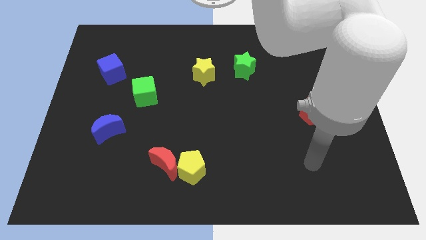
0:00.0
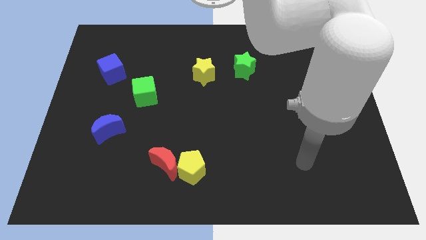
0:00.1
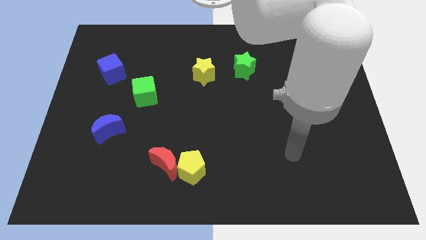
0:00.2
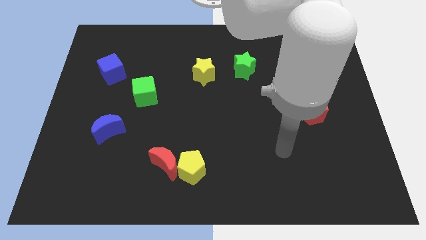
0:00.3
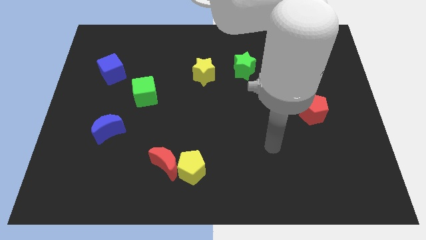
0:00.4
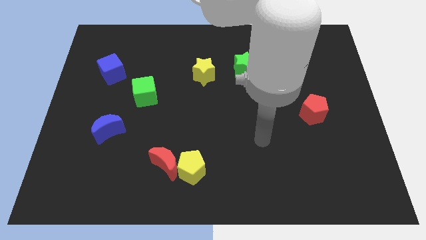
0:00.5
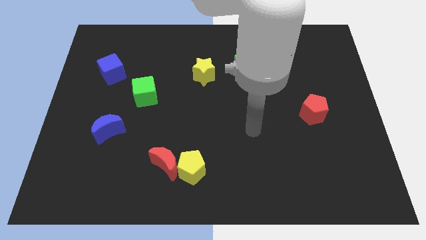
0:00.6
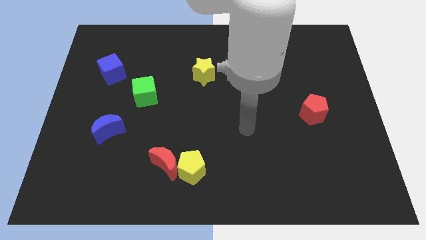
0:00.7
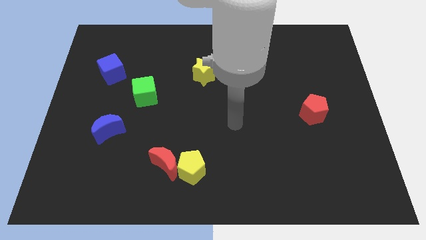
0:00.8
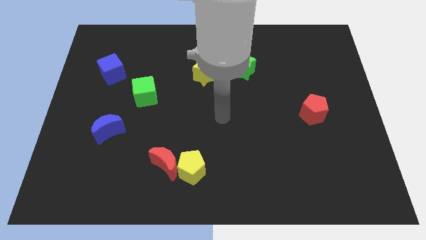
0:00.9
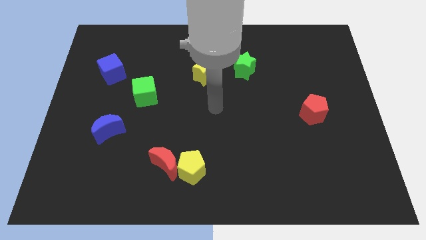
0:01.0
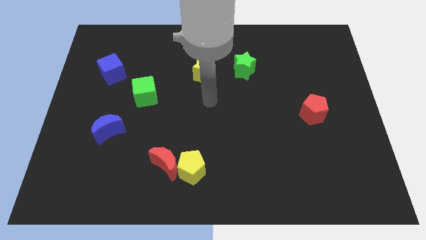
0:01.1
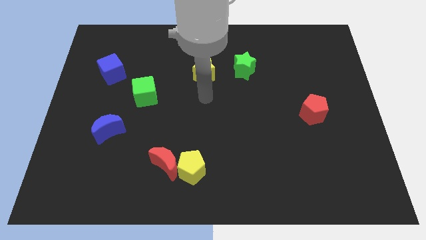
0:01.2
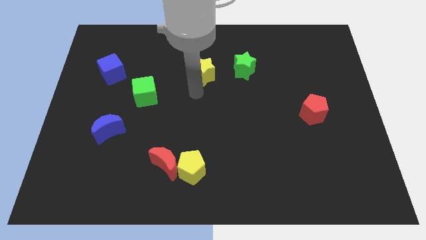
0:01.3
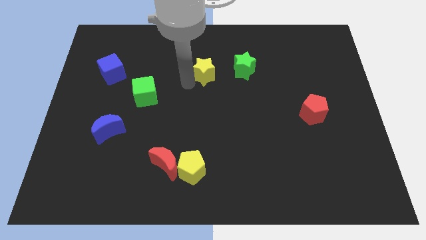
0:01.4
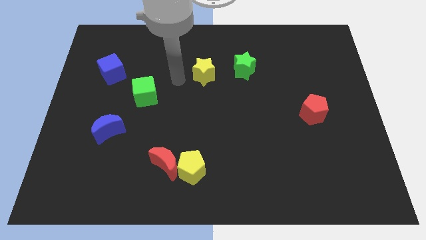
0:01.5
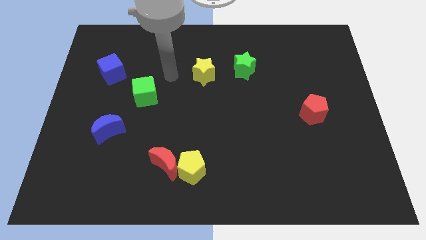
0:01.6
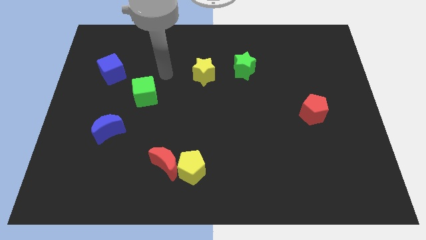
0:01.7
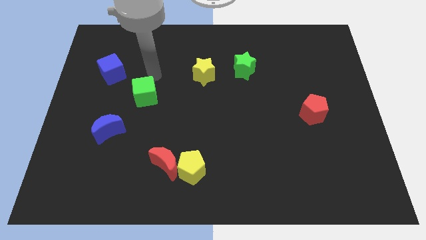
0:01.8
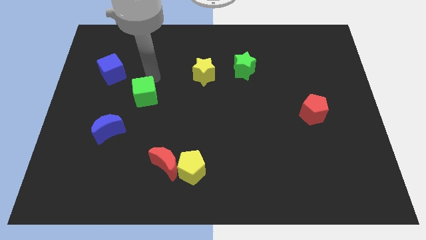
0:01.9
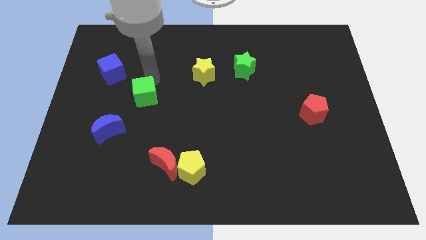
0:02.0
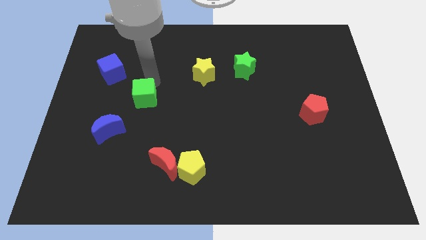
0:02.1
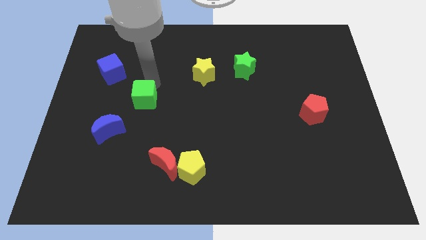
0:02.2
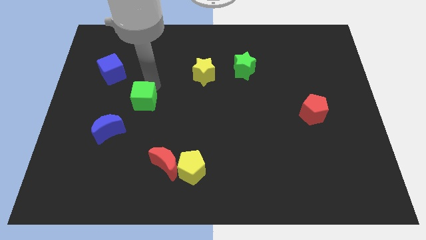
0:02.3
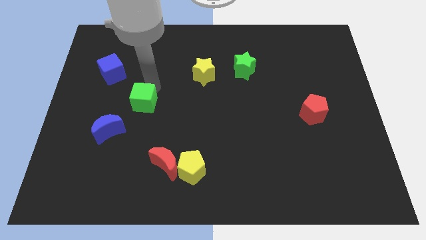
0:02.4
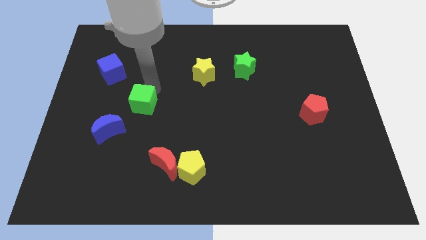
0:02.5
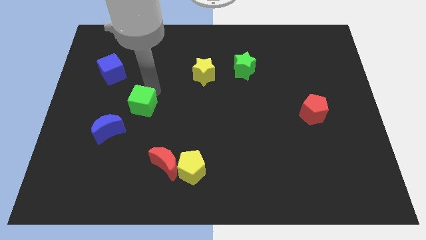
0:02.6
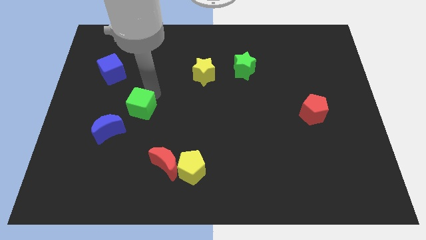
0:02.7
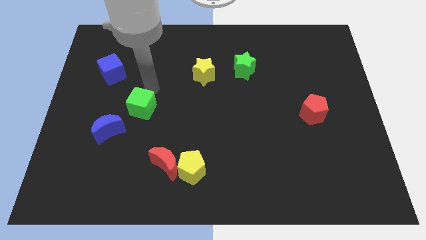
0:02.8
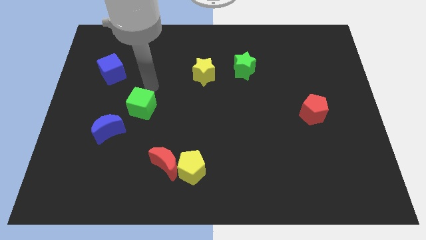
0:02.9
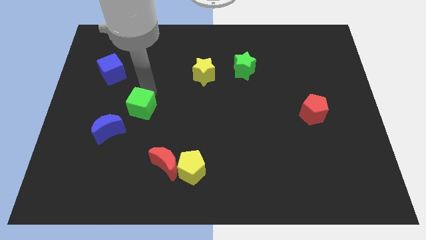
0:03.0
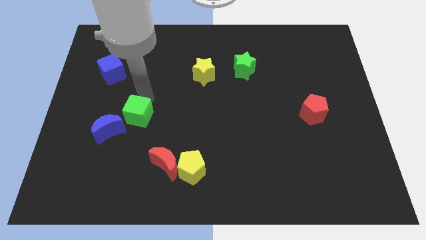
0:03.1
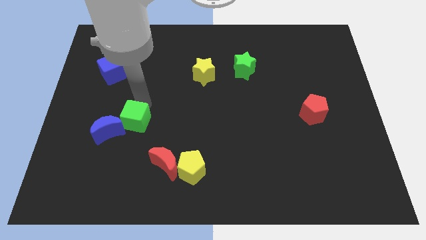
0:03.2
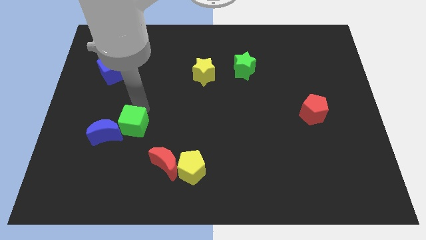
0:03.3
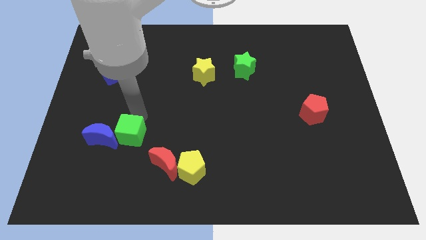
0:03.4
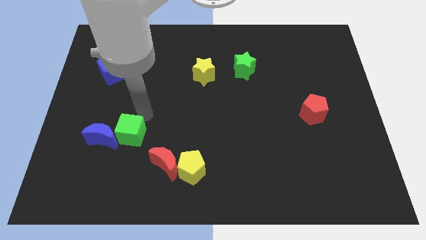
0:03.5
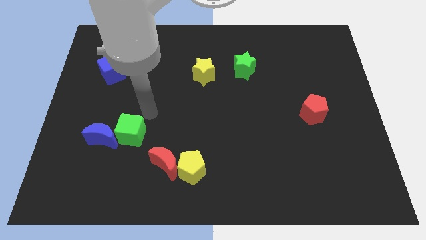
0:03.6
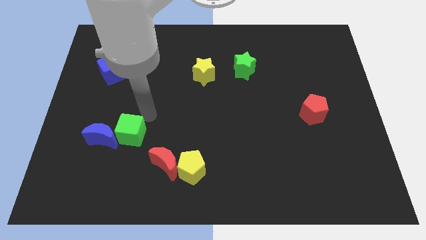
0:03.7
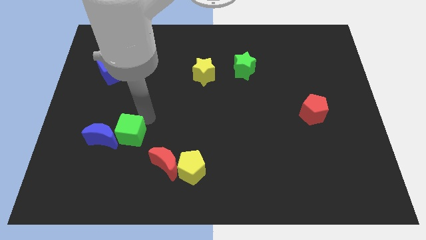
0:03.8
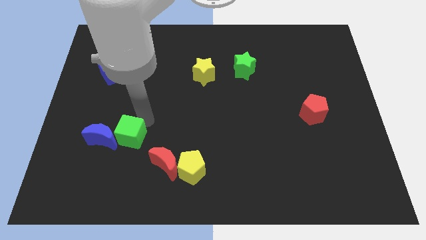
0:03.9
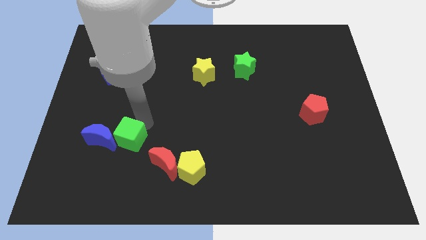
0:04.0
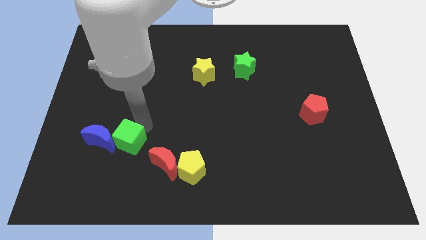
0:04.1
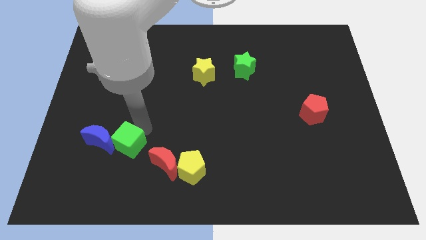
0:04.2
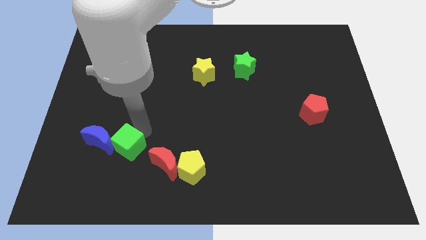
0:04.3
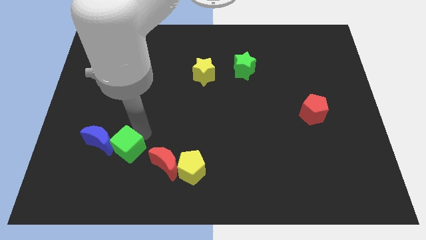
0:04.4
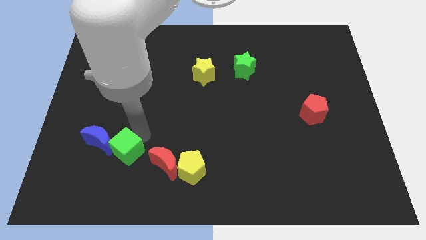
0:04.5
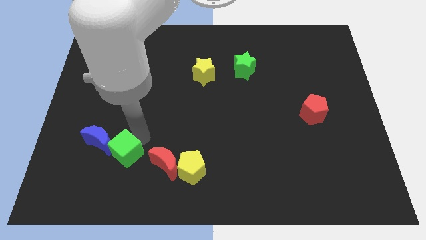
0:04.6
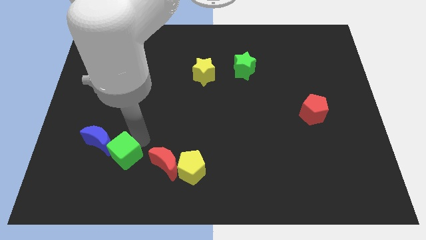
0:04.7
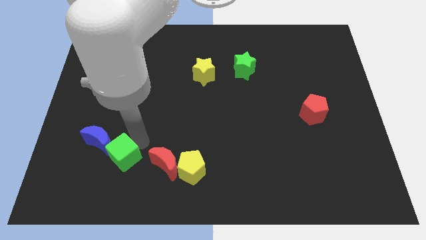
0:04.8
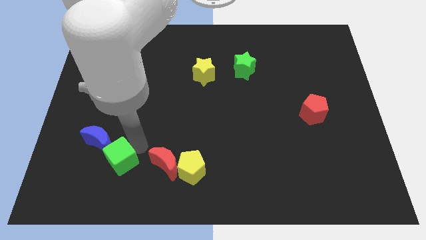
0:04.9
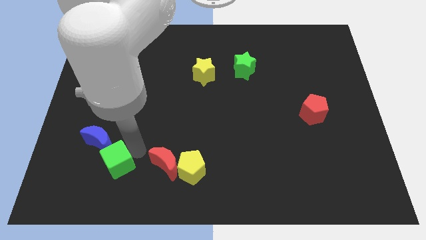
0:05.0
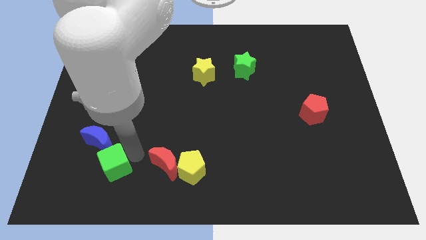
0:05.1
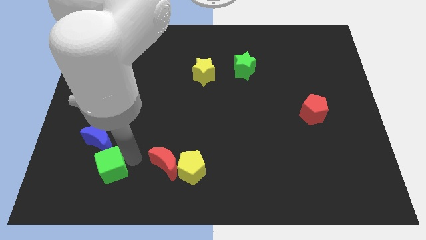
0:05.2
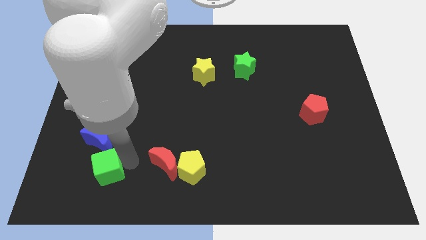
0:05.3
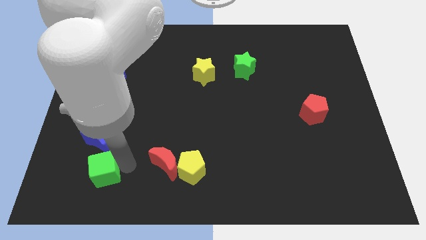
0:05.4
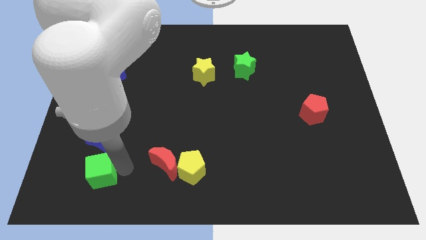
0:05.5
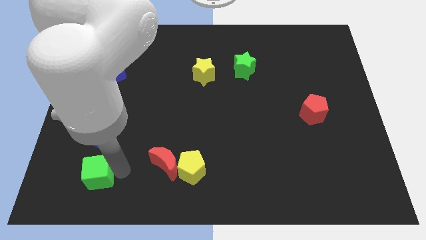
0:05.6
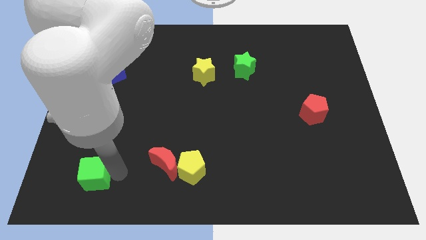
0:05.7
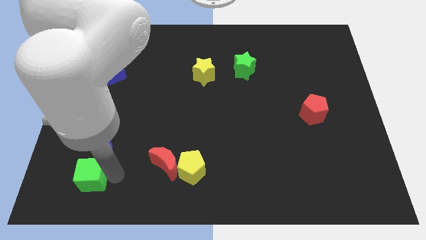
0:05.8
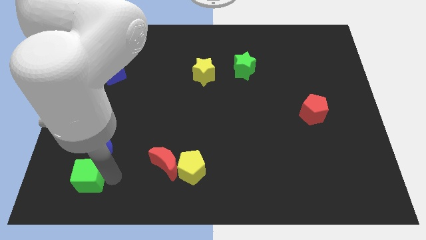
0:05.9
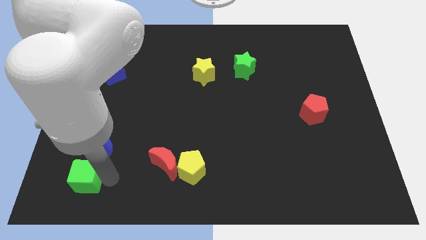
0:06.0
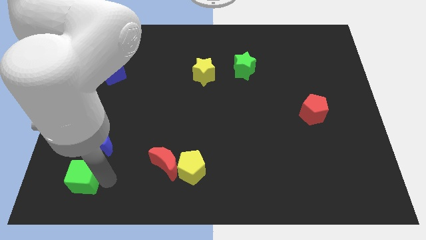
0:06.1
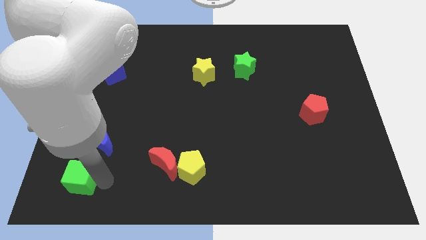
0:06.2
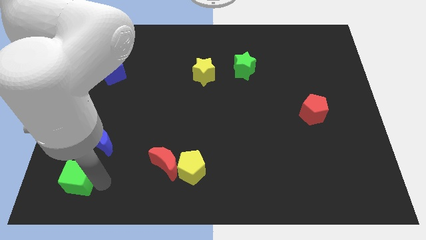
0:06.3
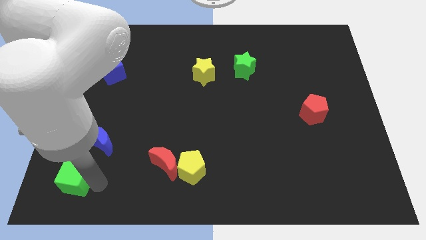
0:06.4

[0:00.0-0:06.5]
push the green cube to the lower left corner
